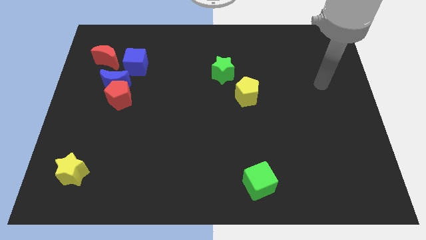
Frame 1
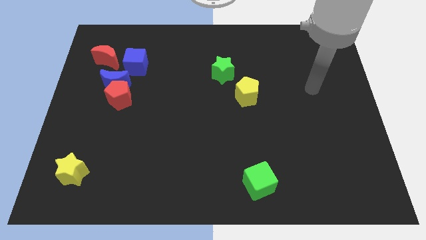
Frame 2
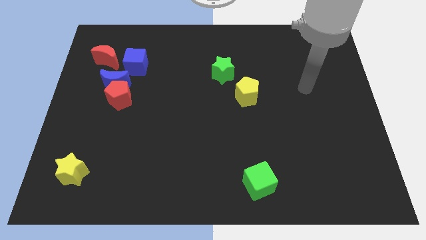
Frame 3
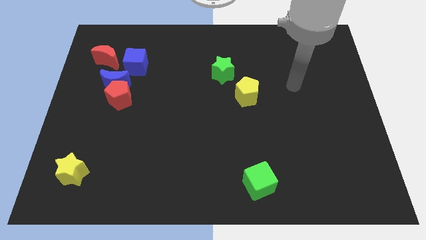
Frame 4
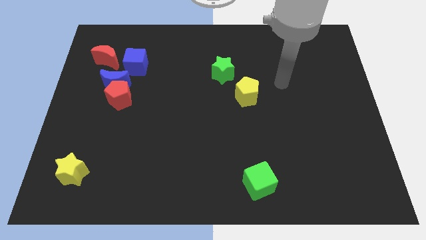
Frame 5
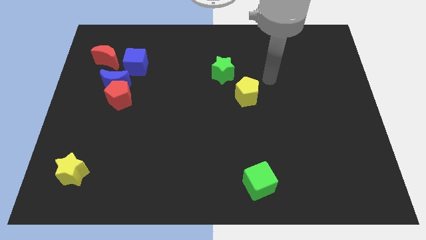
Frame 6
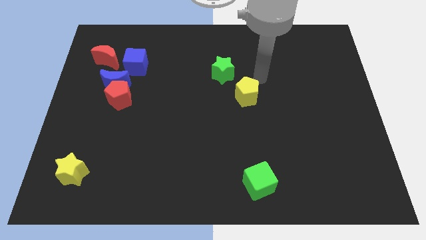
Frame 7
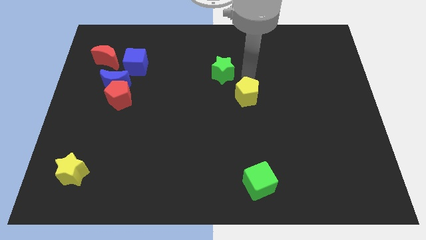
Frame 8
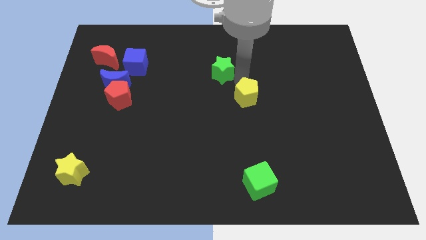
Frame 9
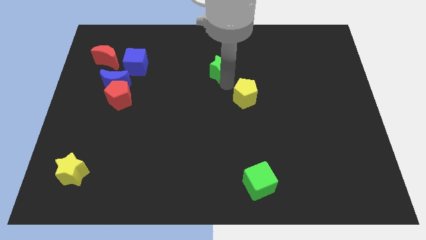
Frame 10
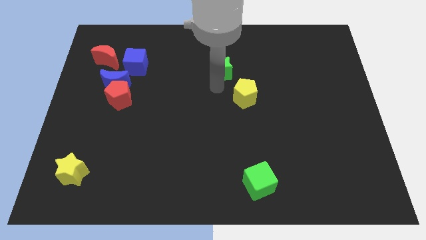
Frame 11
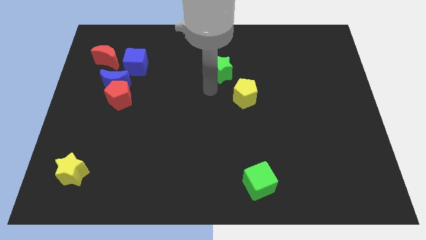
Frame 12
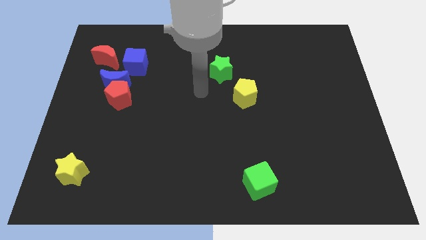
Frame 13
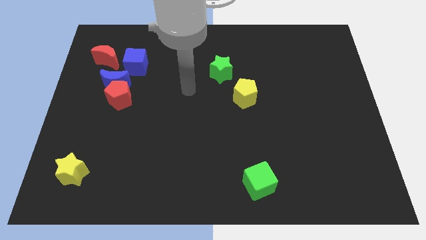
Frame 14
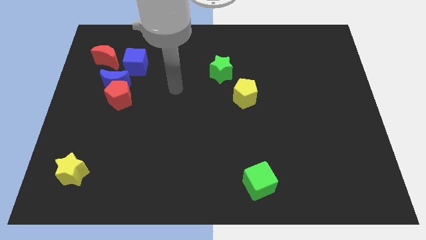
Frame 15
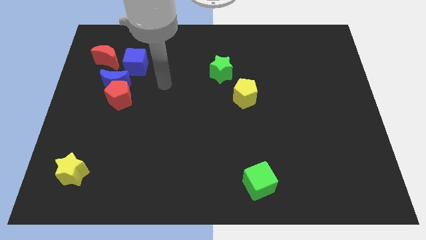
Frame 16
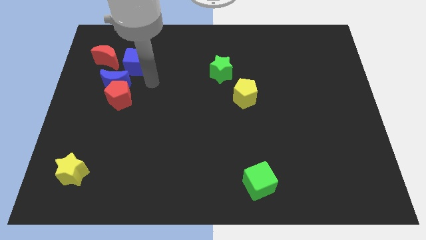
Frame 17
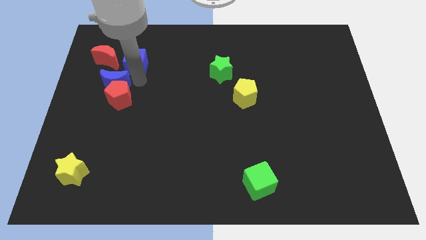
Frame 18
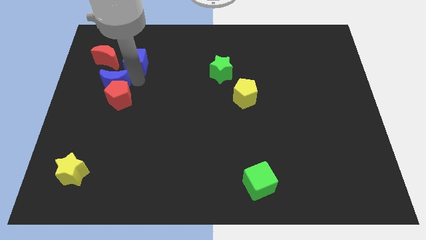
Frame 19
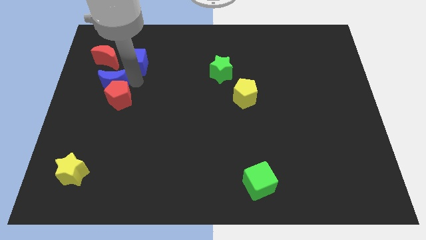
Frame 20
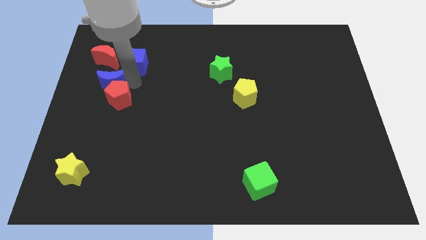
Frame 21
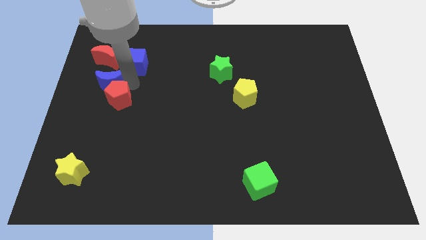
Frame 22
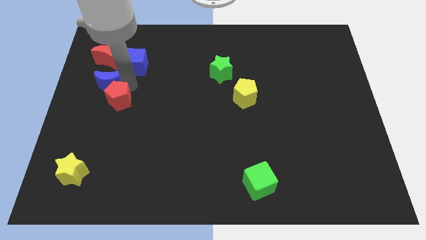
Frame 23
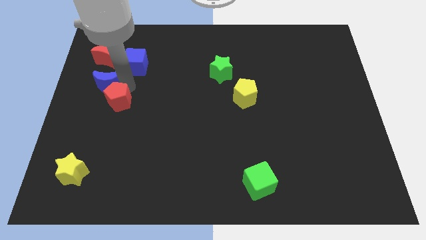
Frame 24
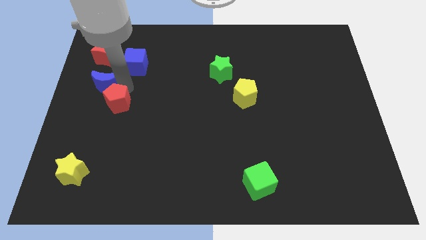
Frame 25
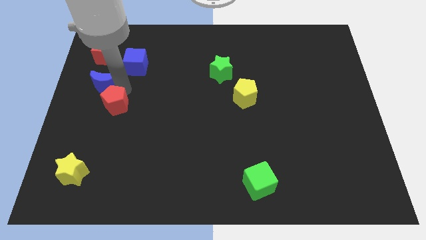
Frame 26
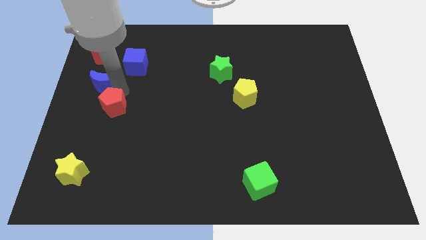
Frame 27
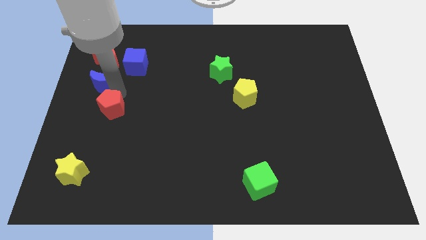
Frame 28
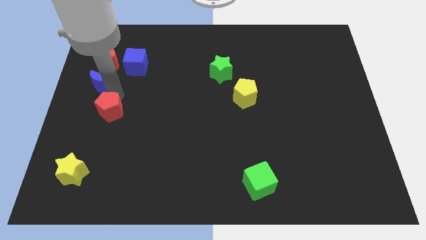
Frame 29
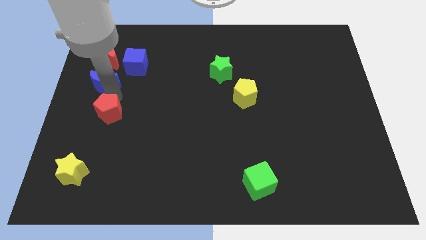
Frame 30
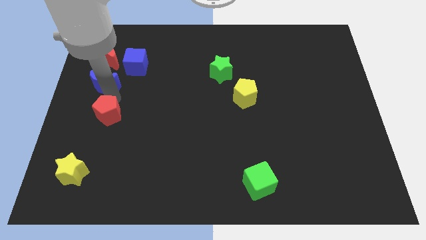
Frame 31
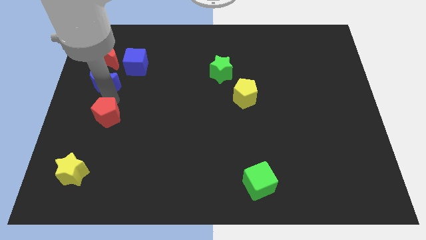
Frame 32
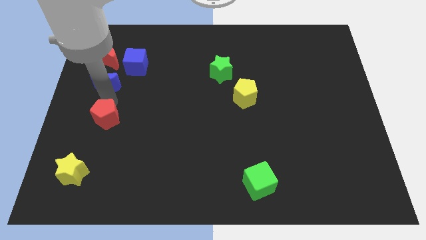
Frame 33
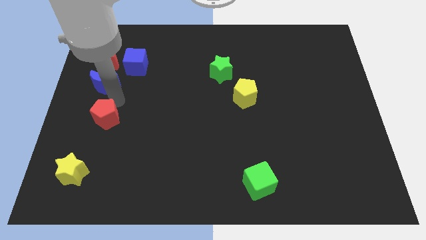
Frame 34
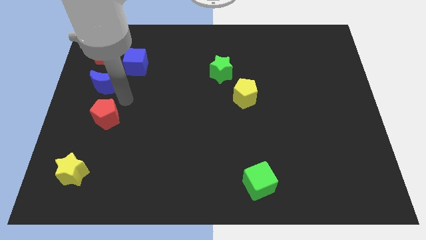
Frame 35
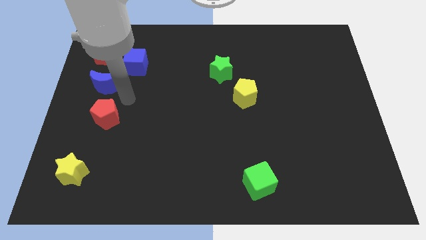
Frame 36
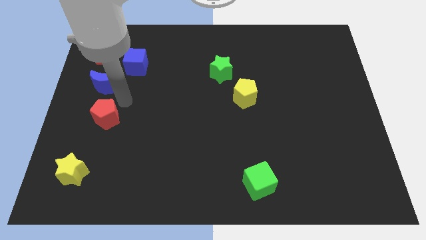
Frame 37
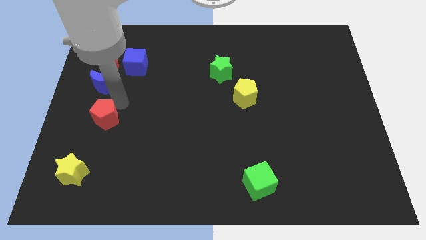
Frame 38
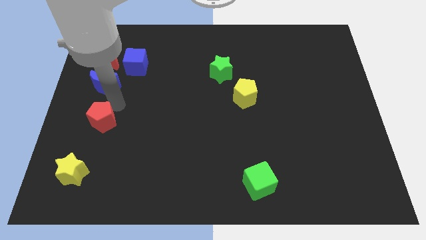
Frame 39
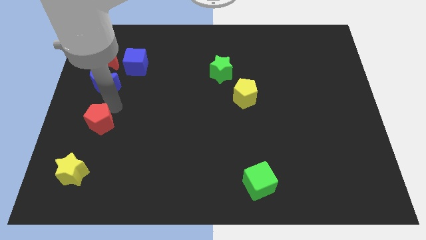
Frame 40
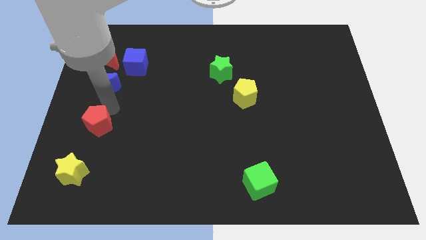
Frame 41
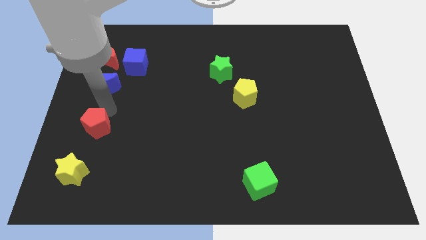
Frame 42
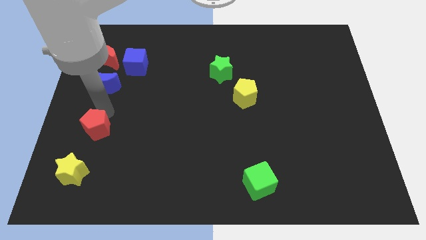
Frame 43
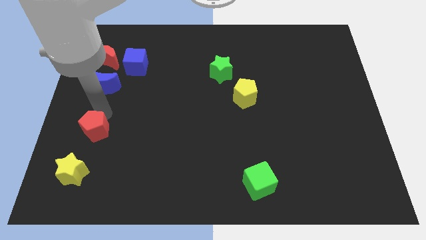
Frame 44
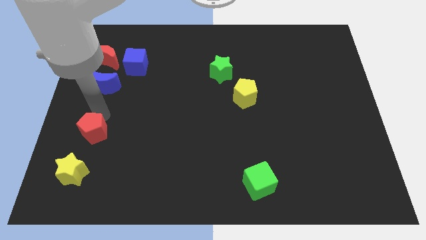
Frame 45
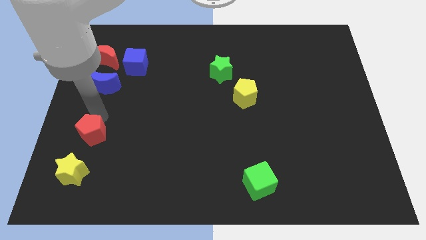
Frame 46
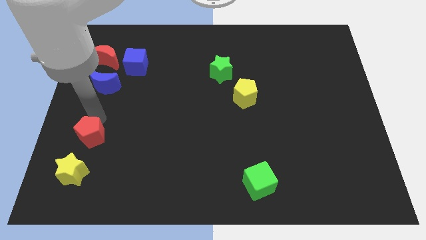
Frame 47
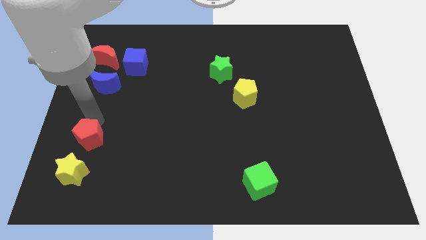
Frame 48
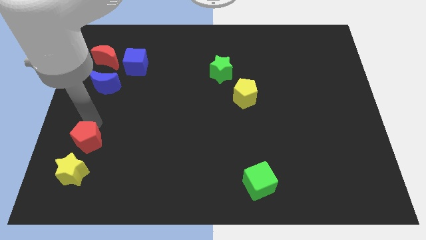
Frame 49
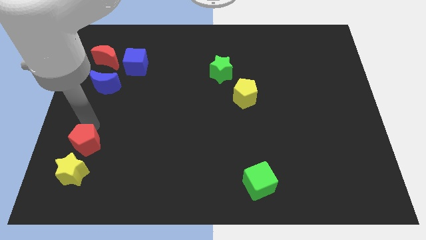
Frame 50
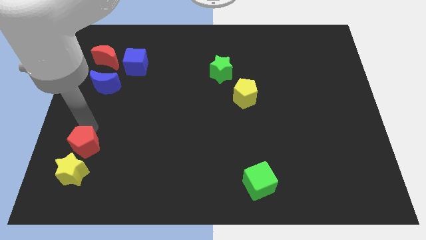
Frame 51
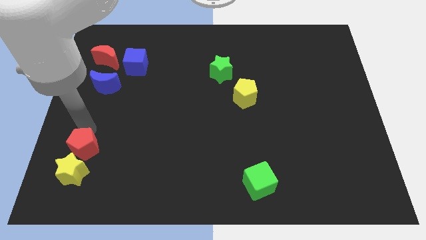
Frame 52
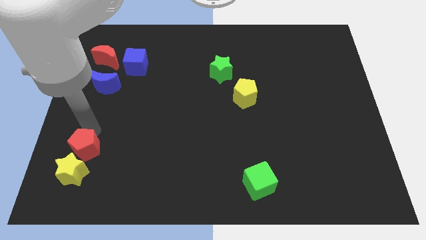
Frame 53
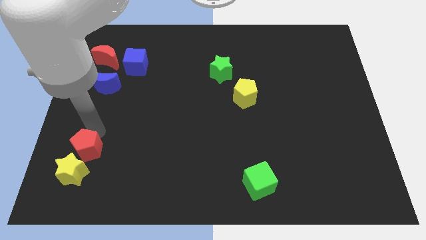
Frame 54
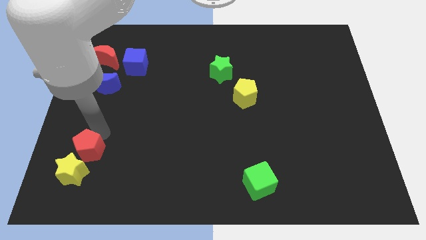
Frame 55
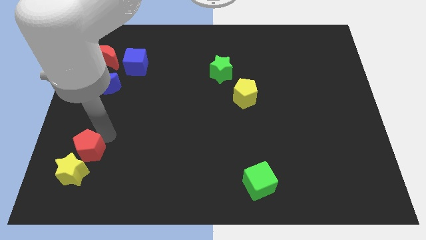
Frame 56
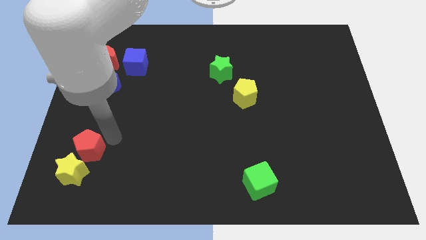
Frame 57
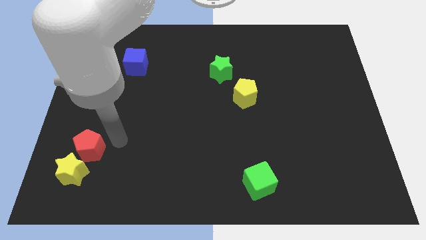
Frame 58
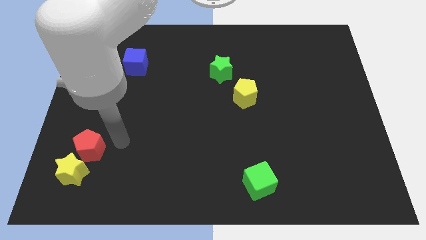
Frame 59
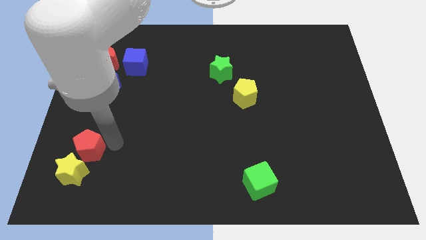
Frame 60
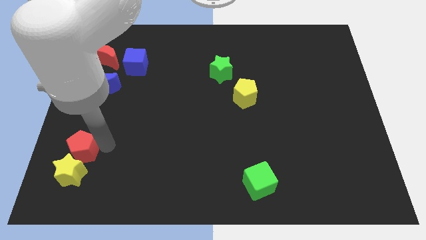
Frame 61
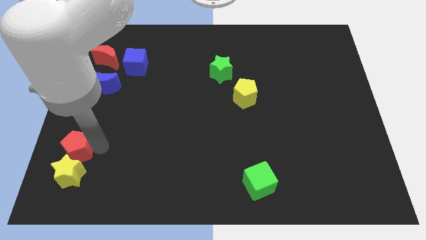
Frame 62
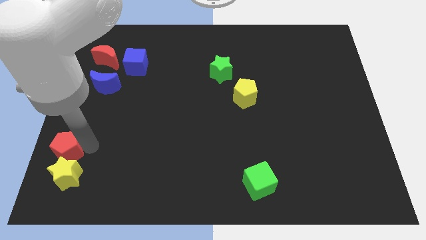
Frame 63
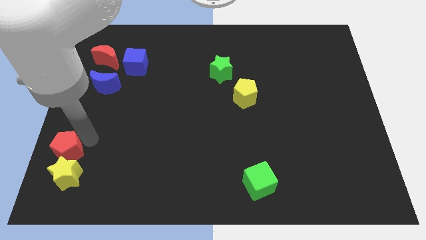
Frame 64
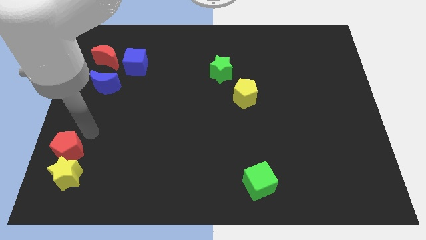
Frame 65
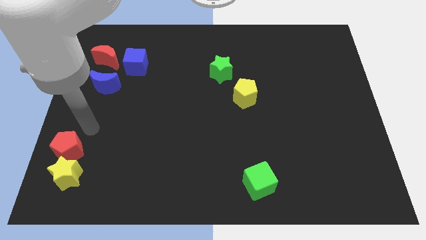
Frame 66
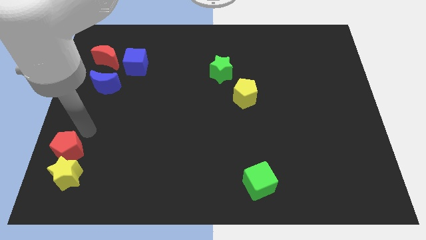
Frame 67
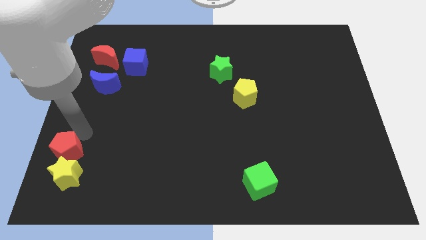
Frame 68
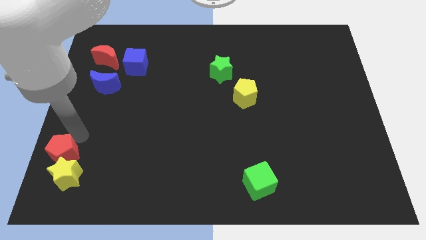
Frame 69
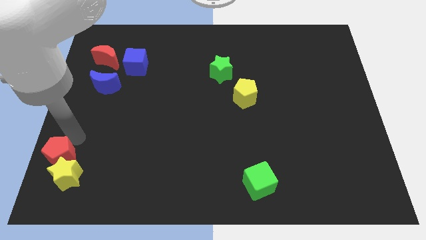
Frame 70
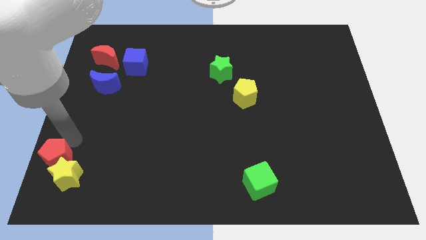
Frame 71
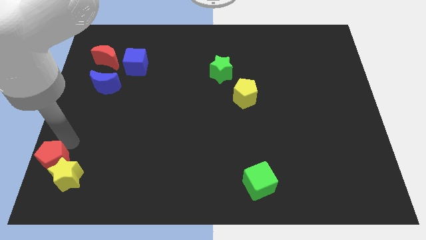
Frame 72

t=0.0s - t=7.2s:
move the red pentagon to the bottom left corner
